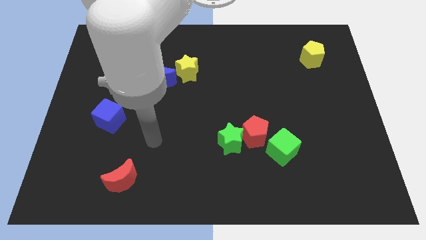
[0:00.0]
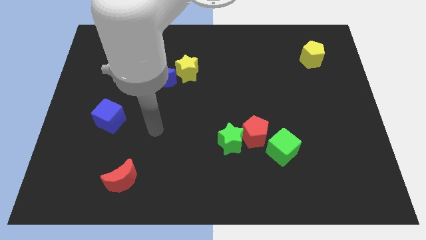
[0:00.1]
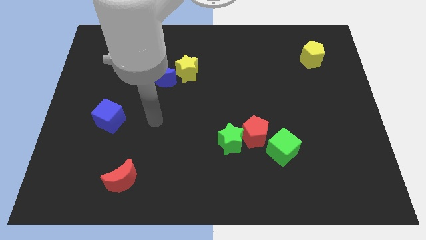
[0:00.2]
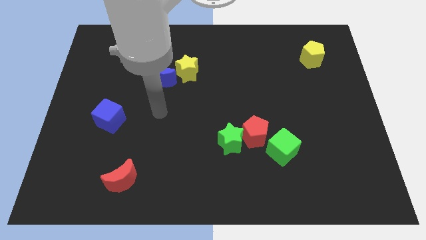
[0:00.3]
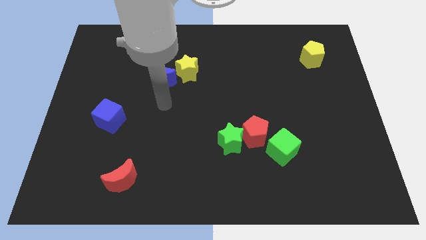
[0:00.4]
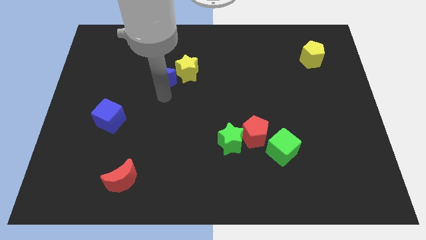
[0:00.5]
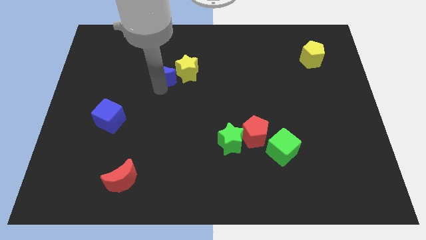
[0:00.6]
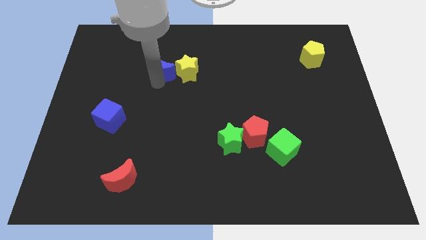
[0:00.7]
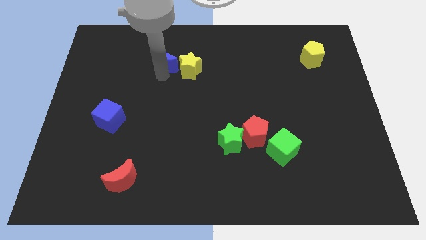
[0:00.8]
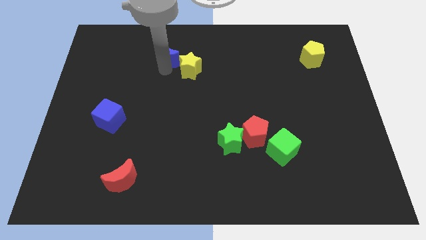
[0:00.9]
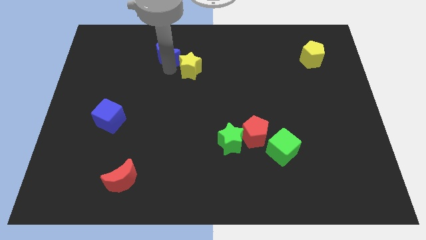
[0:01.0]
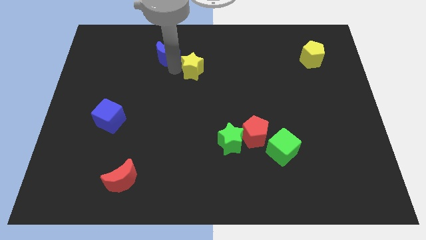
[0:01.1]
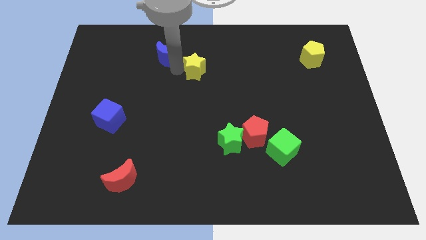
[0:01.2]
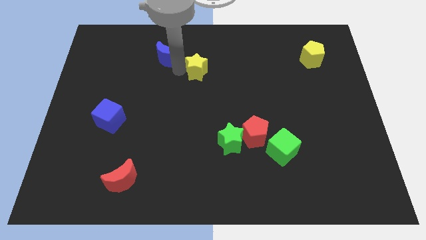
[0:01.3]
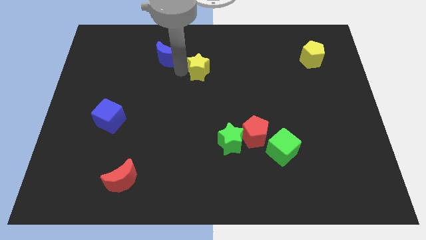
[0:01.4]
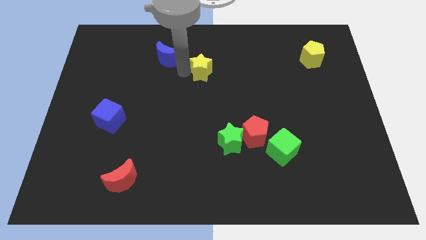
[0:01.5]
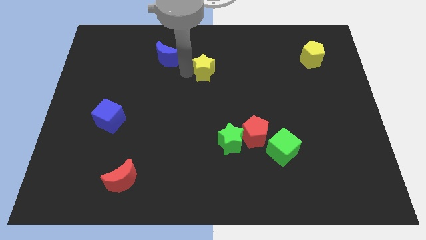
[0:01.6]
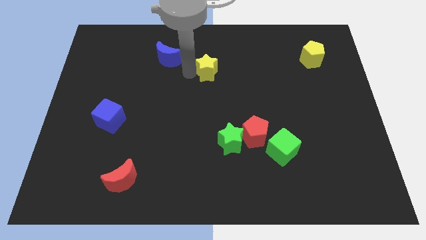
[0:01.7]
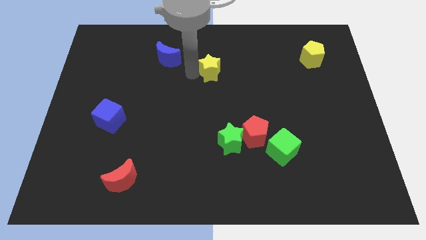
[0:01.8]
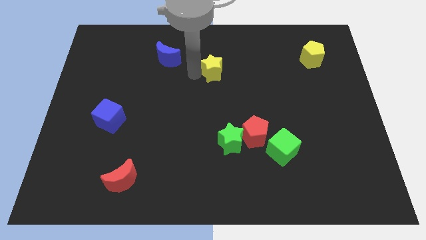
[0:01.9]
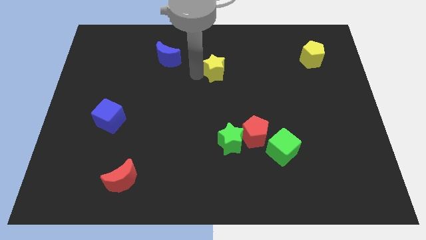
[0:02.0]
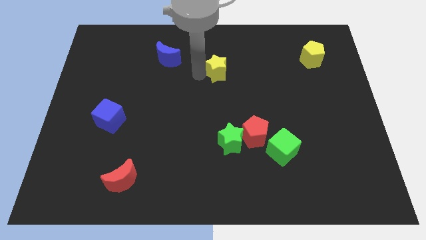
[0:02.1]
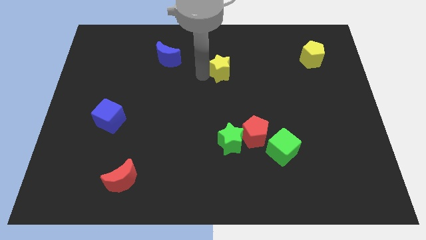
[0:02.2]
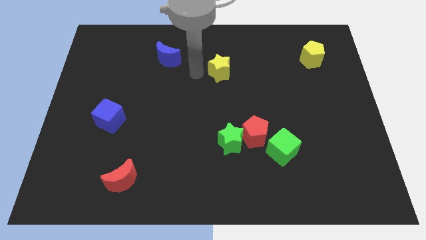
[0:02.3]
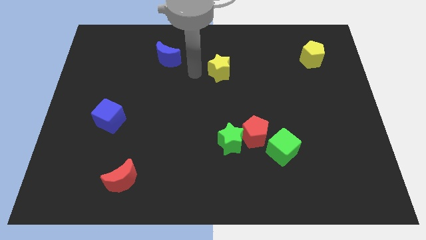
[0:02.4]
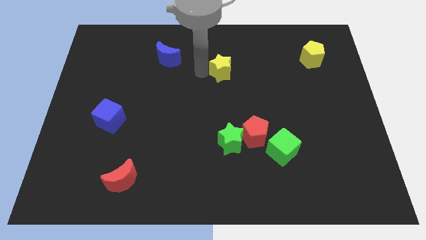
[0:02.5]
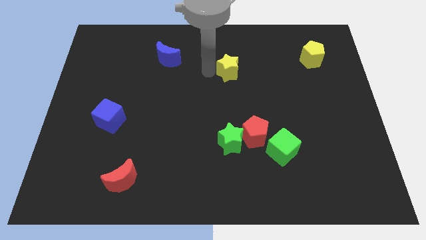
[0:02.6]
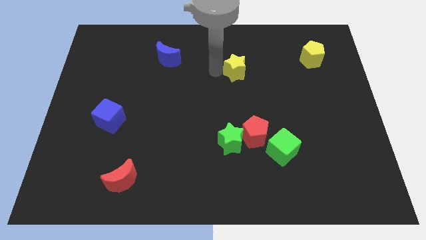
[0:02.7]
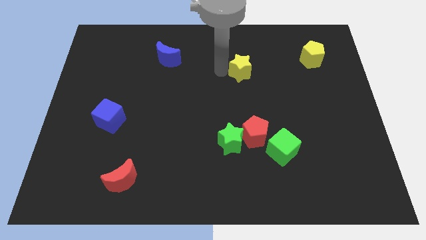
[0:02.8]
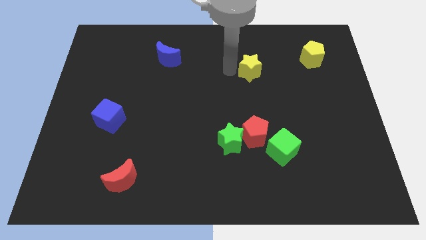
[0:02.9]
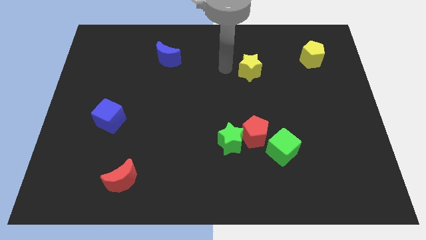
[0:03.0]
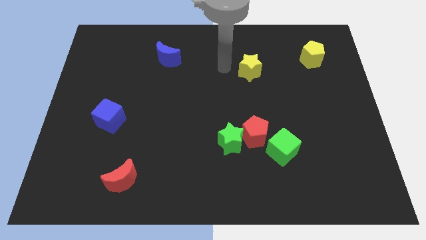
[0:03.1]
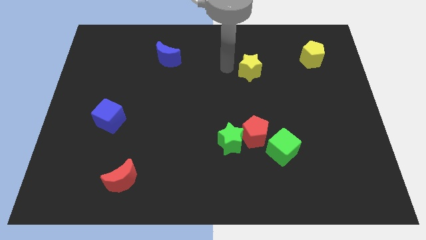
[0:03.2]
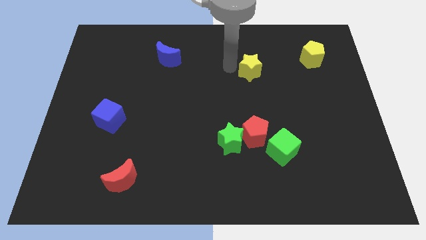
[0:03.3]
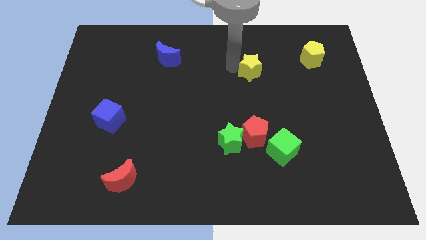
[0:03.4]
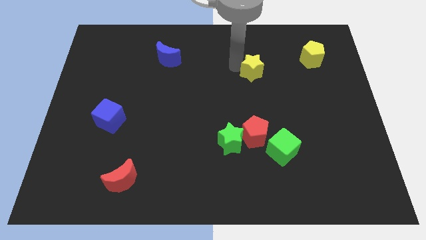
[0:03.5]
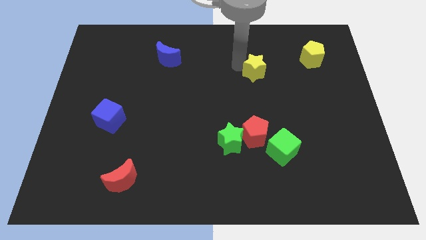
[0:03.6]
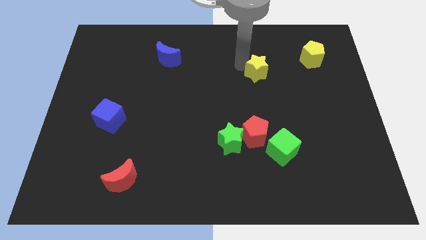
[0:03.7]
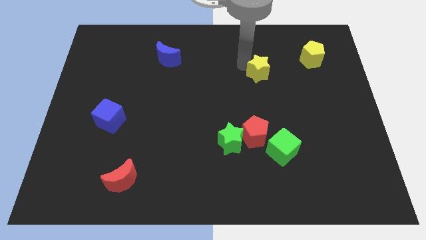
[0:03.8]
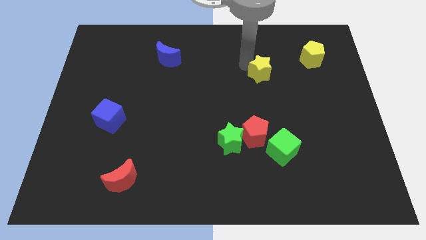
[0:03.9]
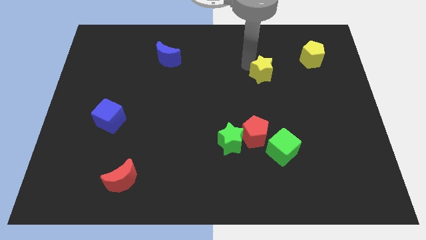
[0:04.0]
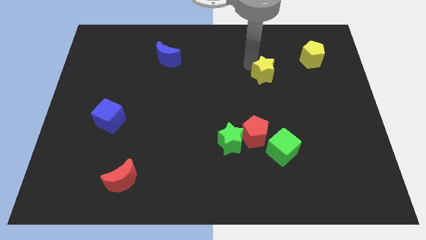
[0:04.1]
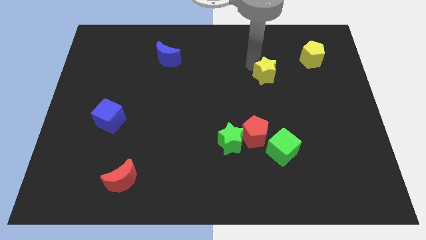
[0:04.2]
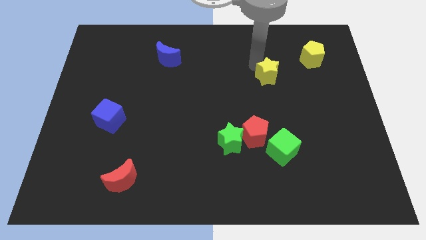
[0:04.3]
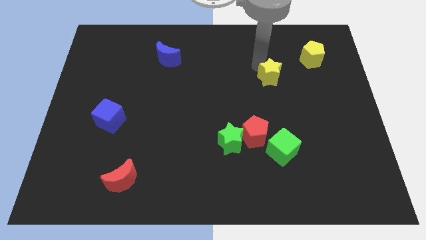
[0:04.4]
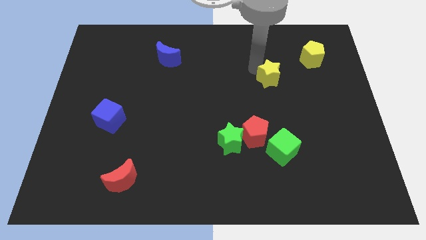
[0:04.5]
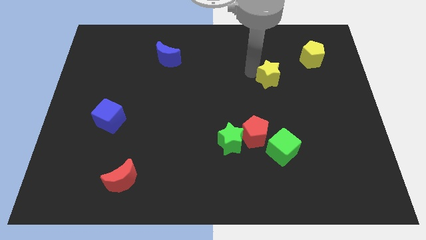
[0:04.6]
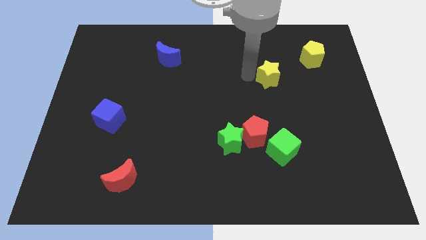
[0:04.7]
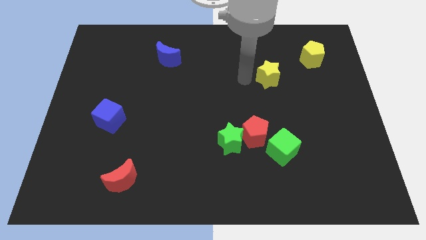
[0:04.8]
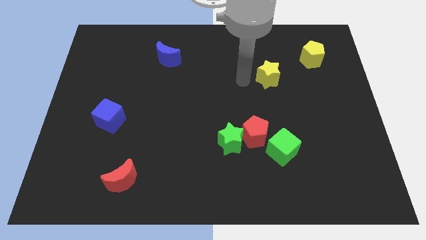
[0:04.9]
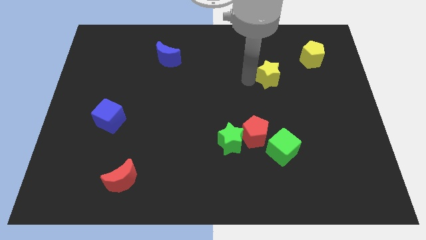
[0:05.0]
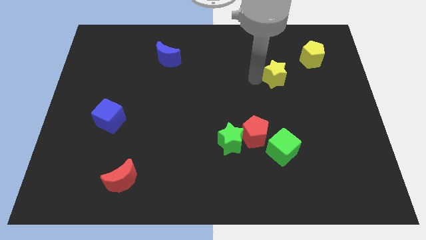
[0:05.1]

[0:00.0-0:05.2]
slide the yellow star diagonally down and to the left of the yellow pentagon

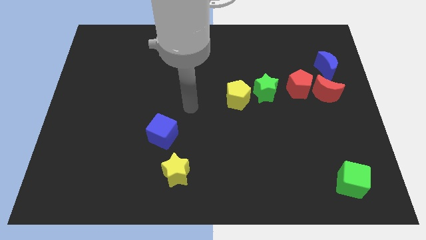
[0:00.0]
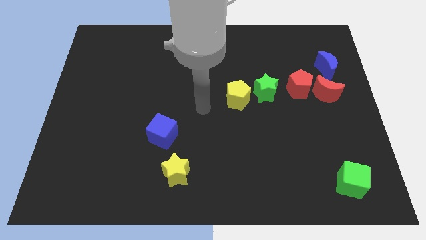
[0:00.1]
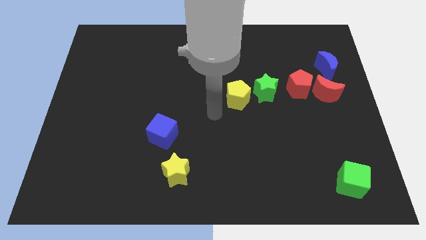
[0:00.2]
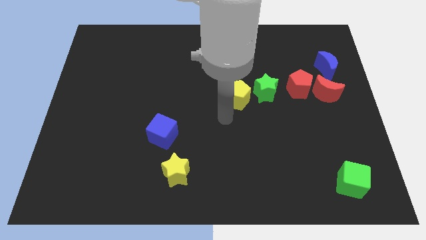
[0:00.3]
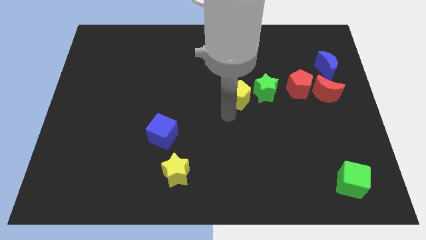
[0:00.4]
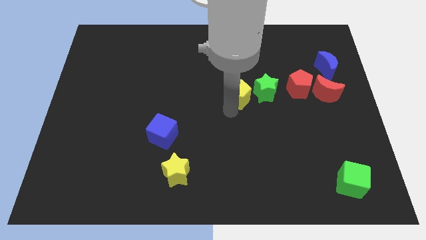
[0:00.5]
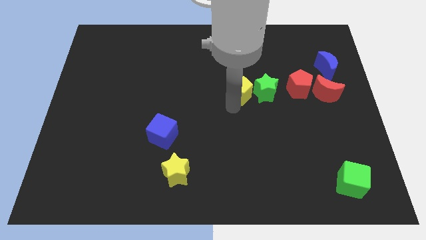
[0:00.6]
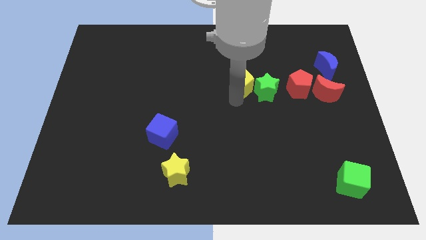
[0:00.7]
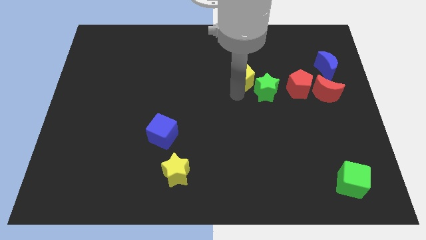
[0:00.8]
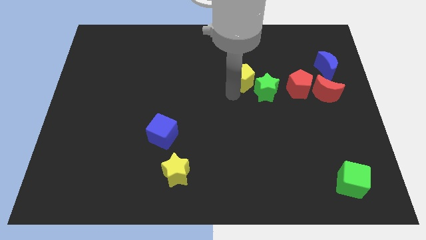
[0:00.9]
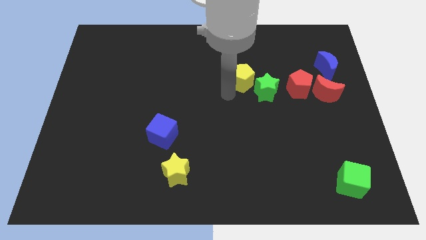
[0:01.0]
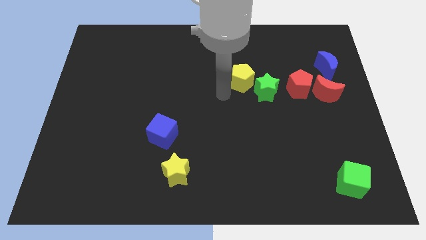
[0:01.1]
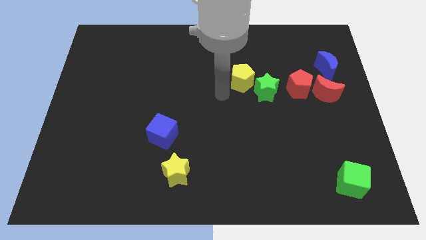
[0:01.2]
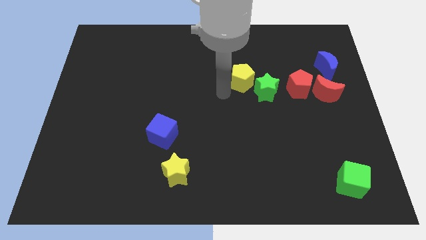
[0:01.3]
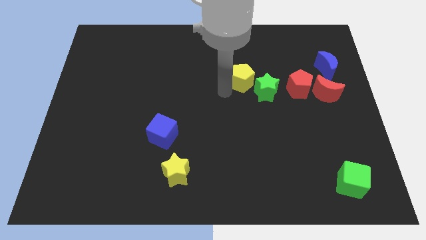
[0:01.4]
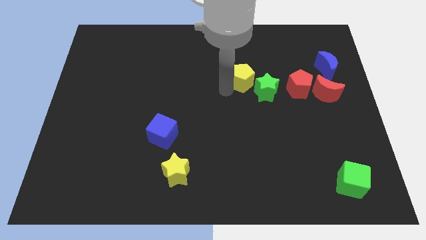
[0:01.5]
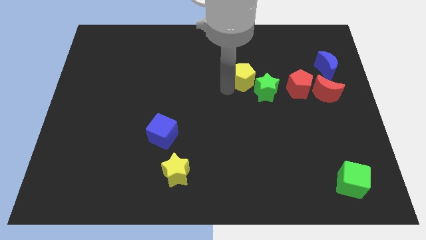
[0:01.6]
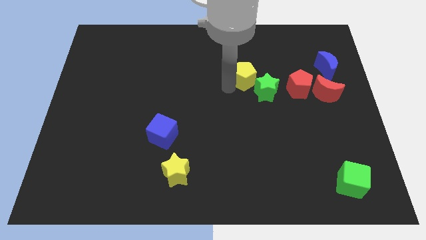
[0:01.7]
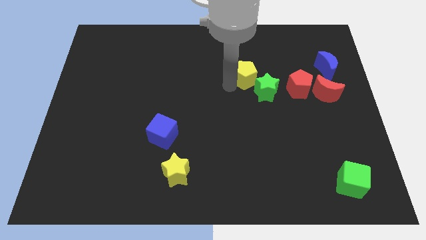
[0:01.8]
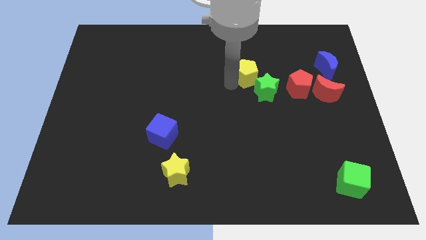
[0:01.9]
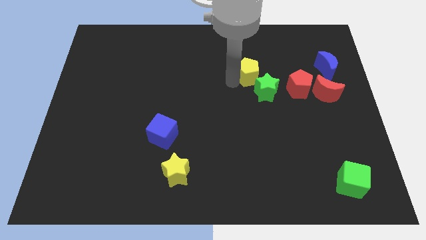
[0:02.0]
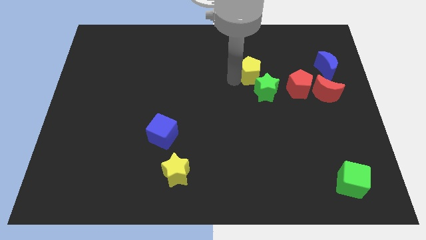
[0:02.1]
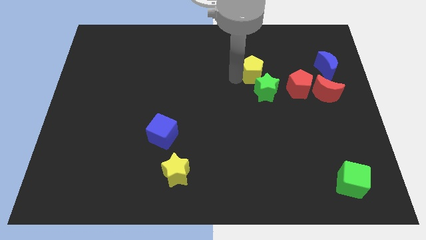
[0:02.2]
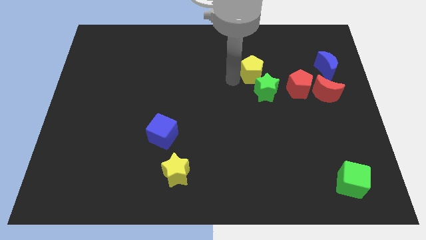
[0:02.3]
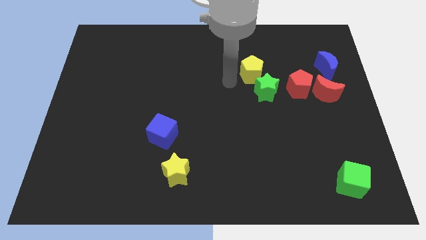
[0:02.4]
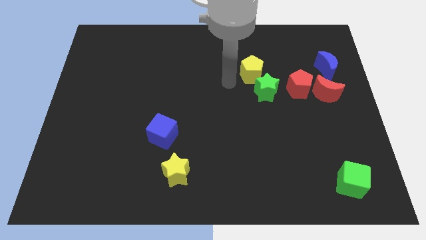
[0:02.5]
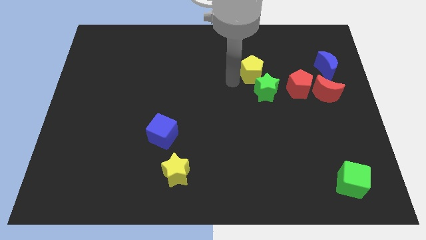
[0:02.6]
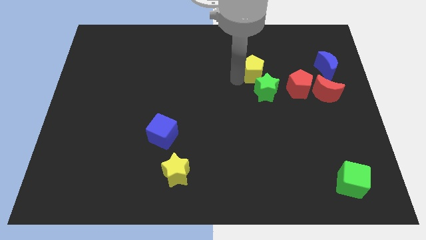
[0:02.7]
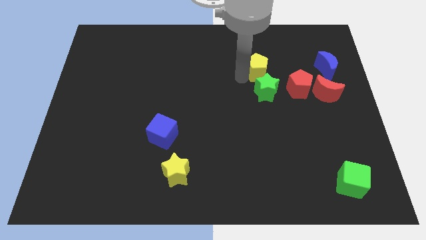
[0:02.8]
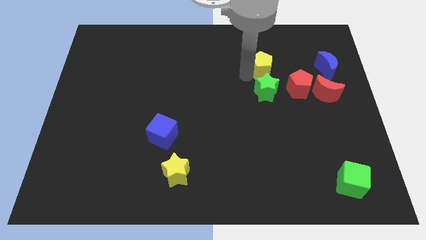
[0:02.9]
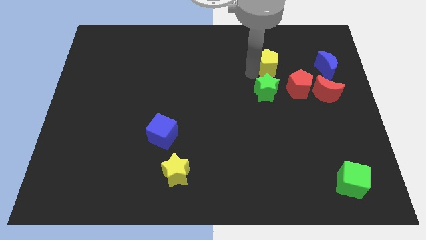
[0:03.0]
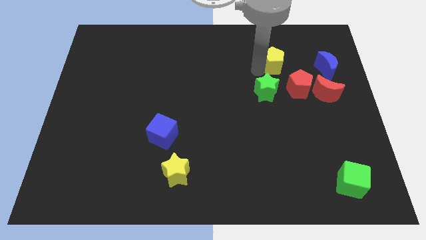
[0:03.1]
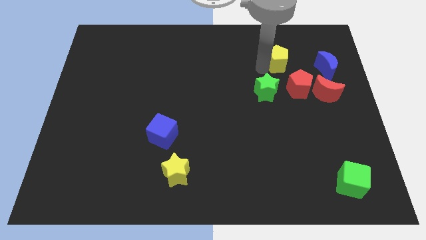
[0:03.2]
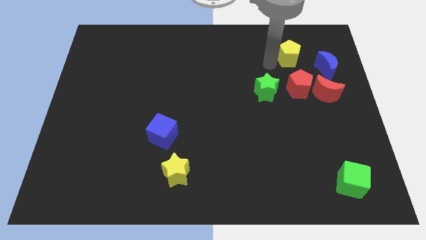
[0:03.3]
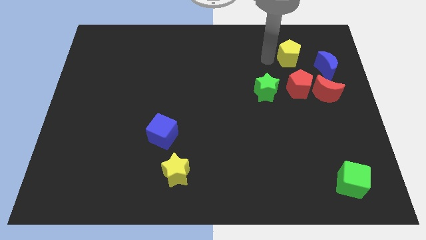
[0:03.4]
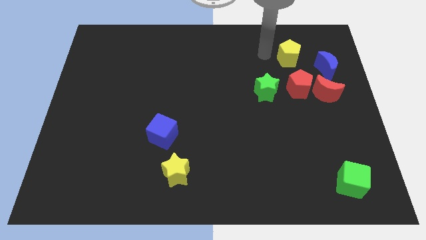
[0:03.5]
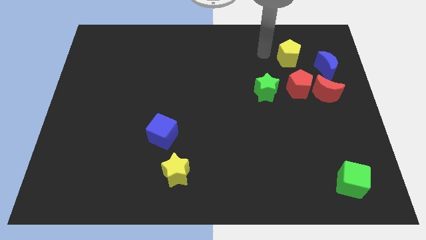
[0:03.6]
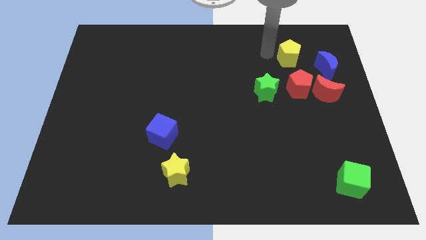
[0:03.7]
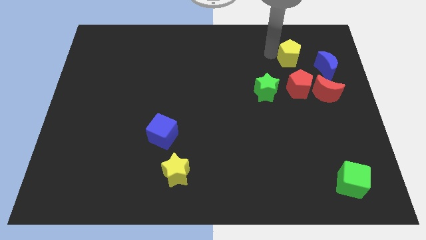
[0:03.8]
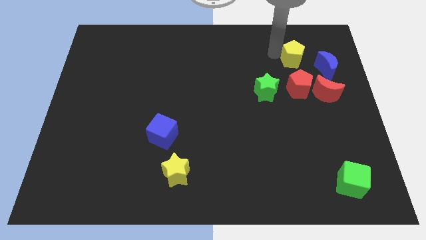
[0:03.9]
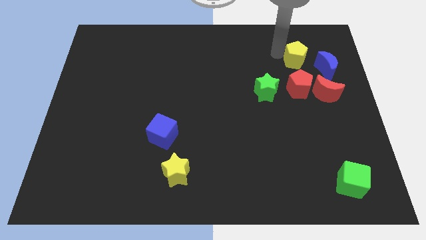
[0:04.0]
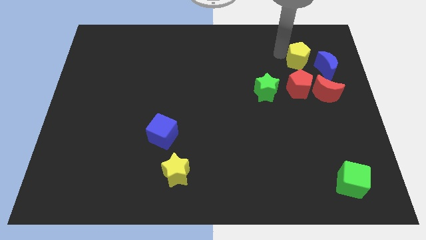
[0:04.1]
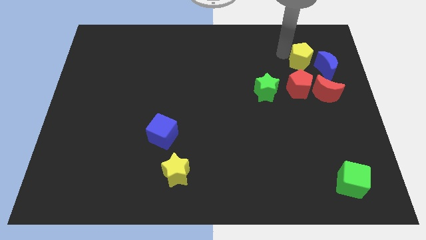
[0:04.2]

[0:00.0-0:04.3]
move the yellow pentagon above the red moon
